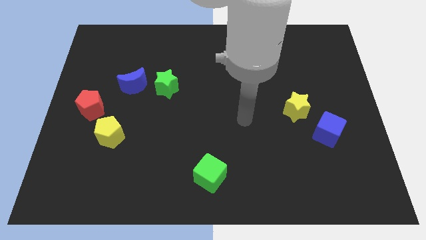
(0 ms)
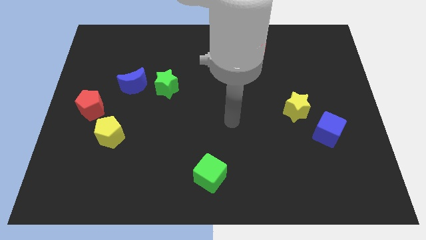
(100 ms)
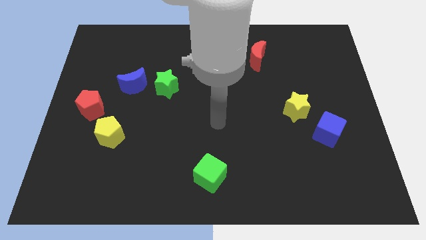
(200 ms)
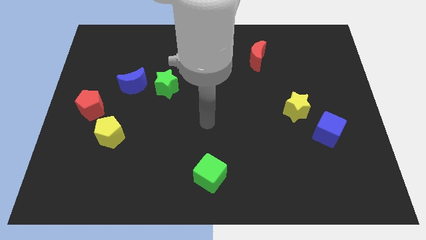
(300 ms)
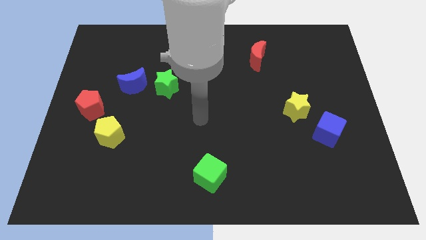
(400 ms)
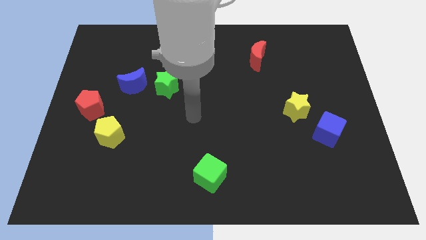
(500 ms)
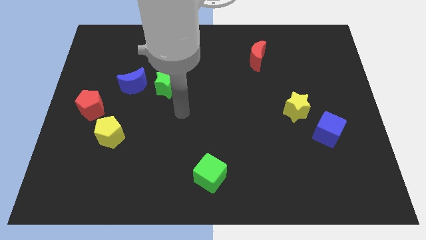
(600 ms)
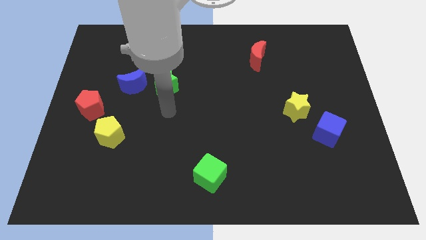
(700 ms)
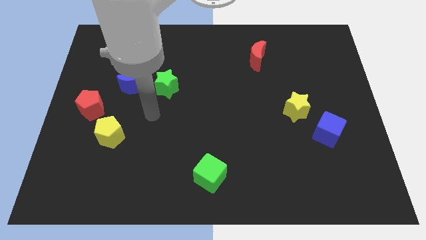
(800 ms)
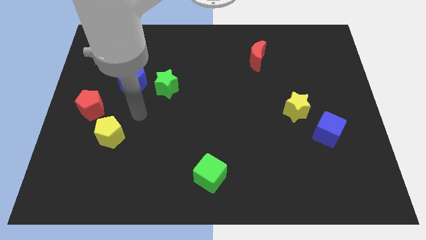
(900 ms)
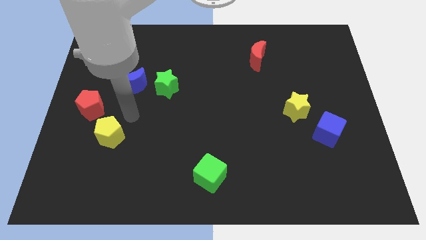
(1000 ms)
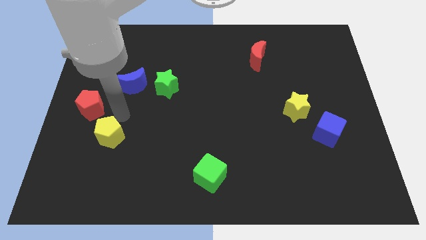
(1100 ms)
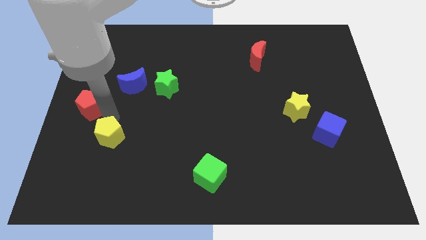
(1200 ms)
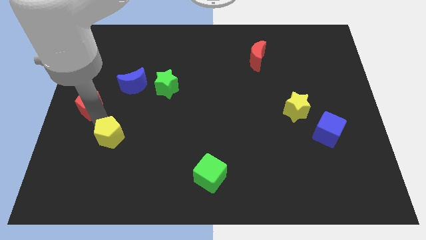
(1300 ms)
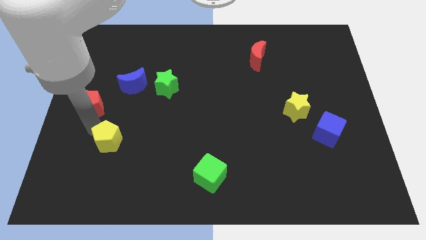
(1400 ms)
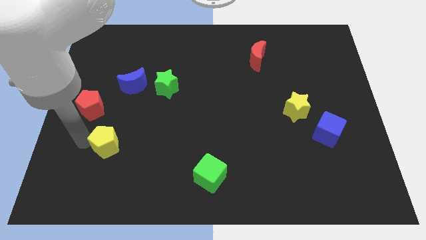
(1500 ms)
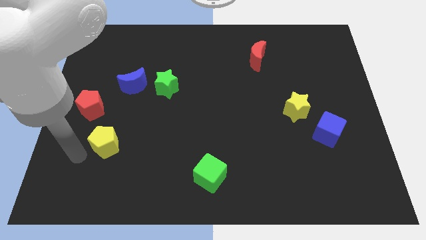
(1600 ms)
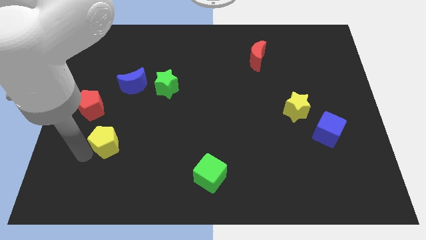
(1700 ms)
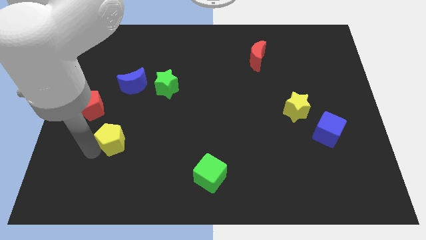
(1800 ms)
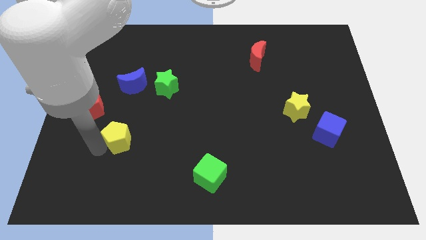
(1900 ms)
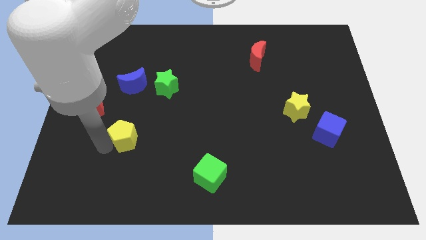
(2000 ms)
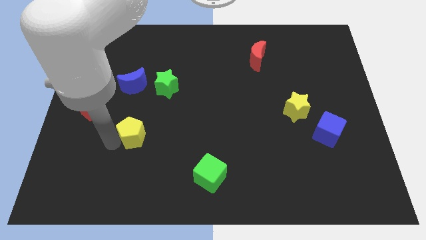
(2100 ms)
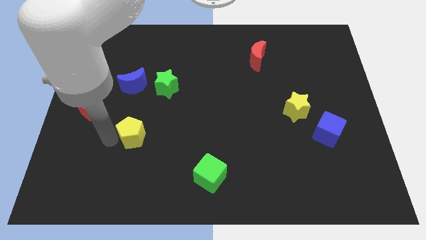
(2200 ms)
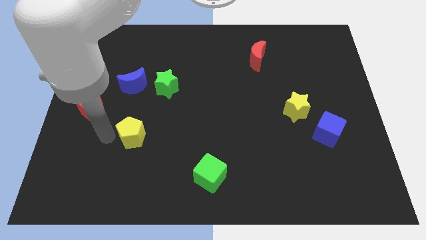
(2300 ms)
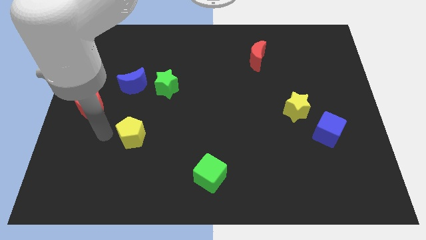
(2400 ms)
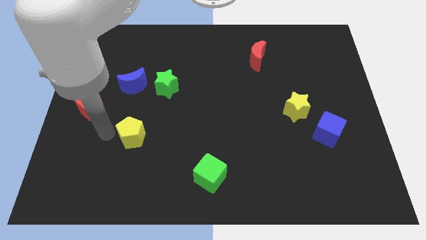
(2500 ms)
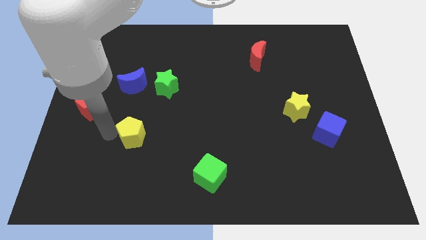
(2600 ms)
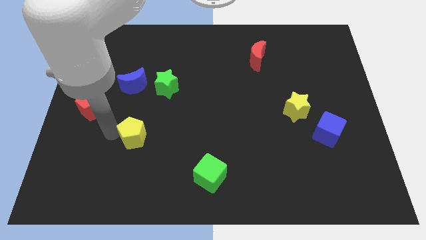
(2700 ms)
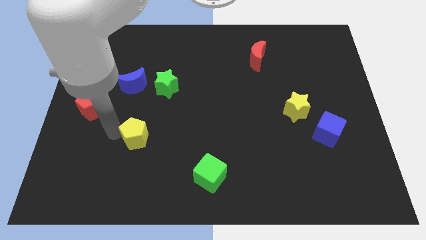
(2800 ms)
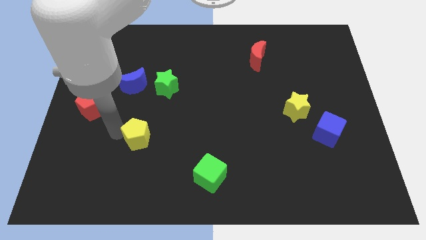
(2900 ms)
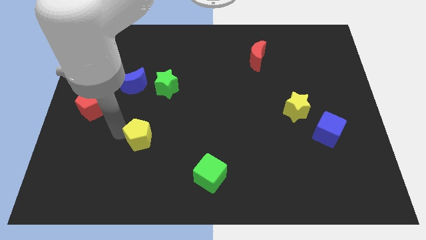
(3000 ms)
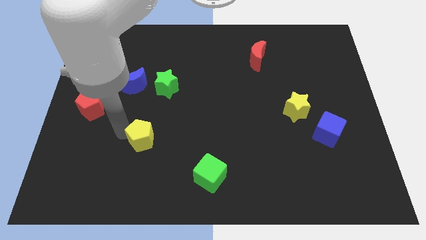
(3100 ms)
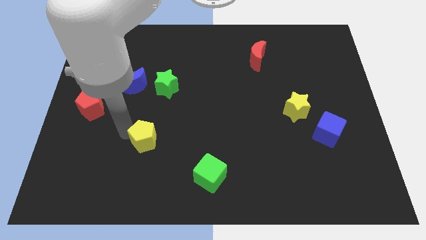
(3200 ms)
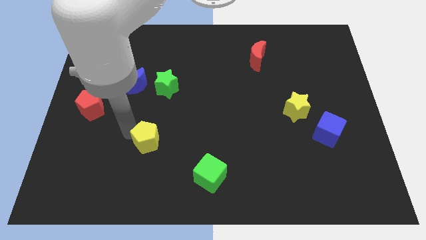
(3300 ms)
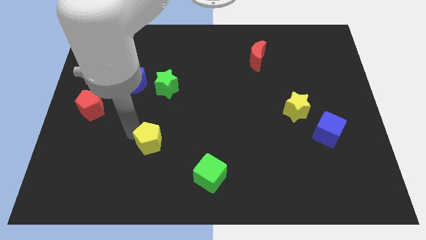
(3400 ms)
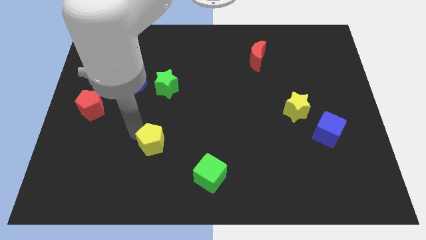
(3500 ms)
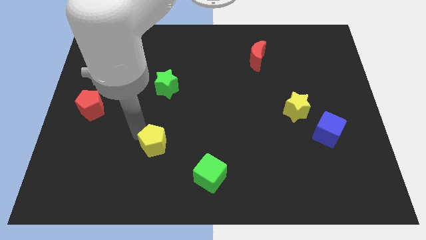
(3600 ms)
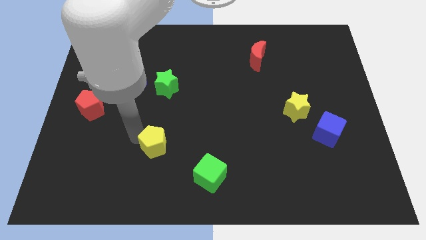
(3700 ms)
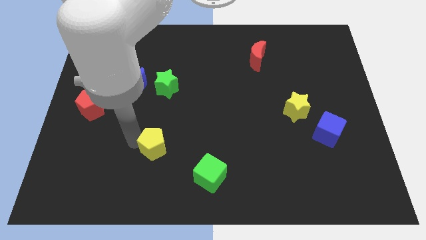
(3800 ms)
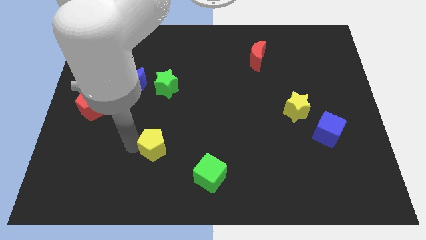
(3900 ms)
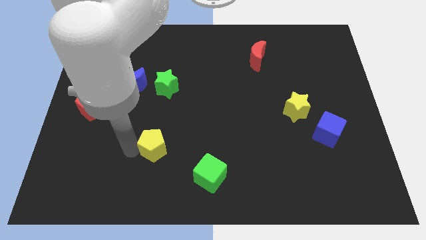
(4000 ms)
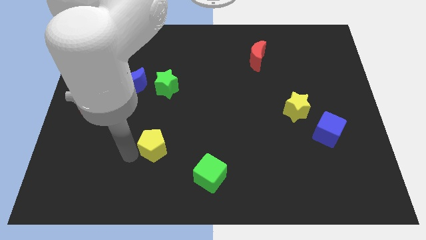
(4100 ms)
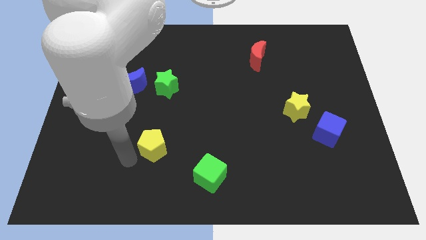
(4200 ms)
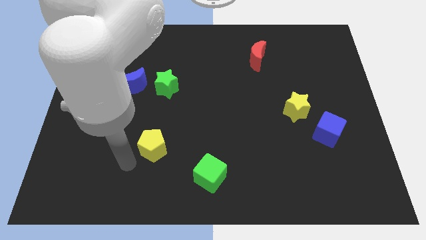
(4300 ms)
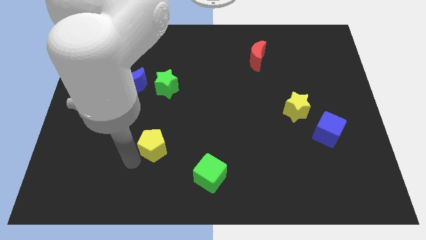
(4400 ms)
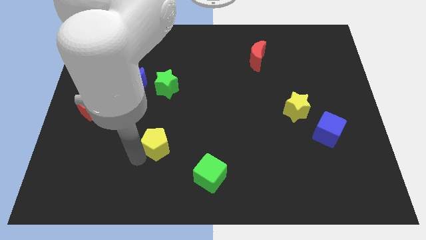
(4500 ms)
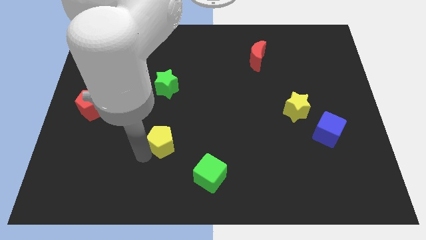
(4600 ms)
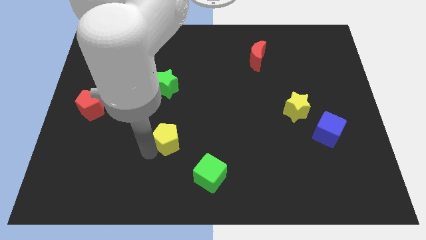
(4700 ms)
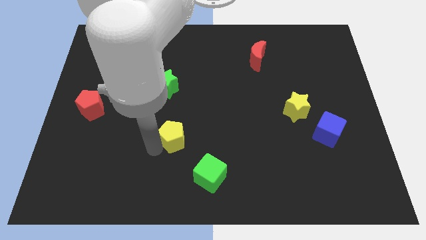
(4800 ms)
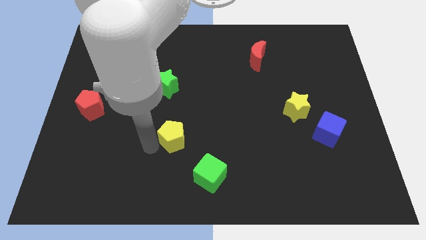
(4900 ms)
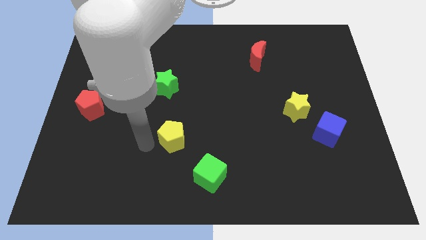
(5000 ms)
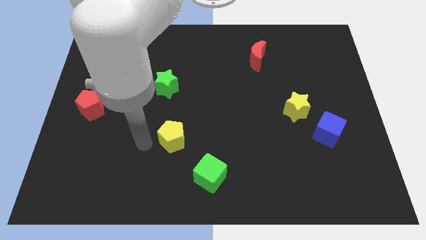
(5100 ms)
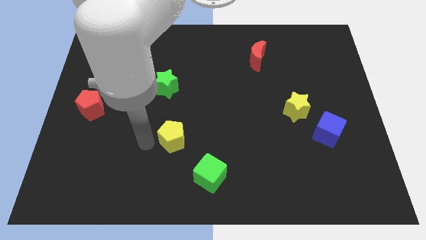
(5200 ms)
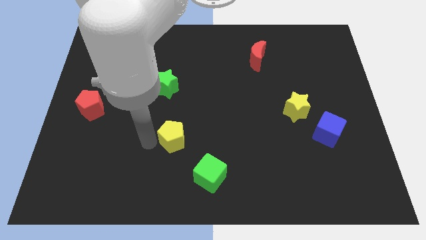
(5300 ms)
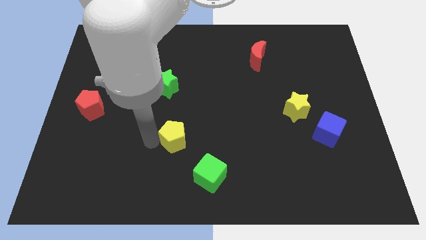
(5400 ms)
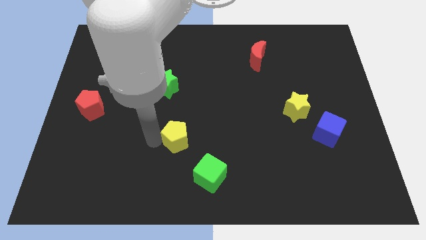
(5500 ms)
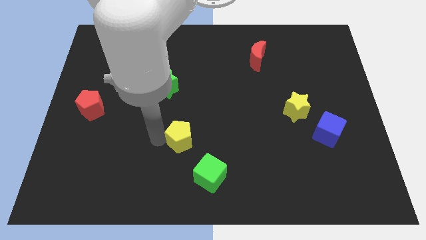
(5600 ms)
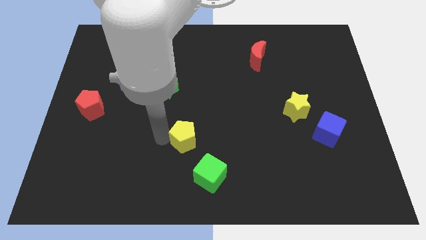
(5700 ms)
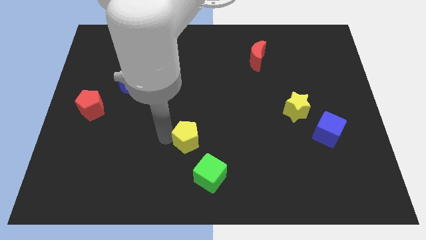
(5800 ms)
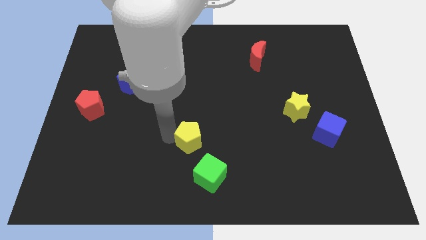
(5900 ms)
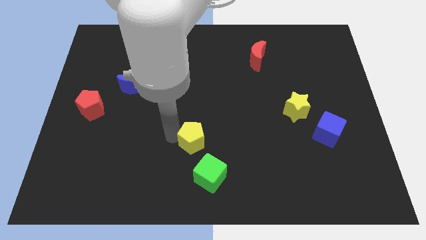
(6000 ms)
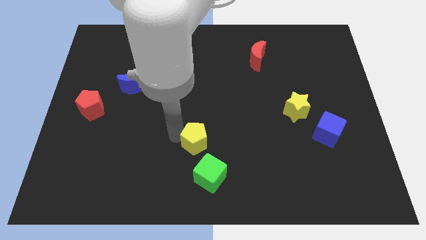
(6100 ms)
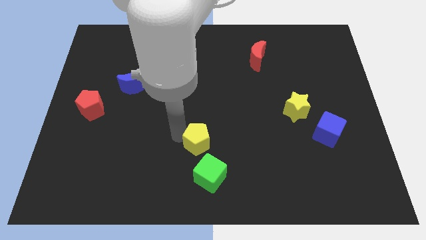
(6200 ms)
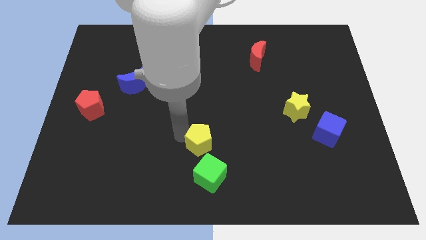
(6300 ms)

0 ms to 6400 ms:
move the yellow pentagon to the right

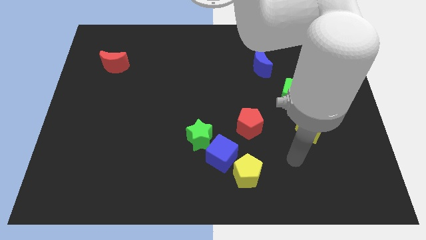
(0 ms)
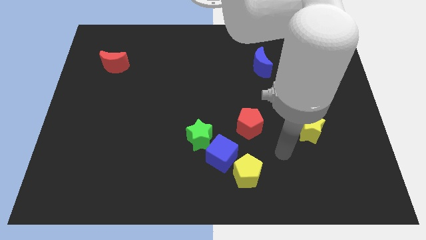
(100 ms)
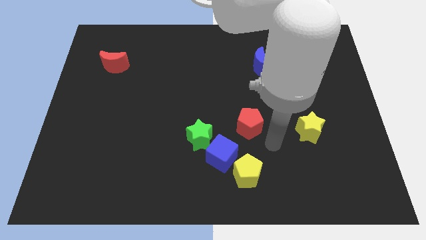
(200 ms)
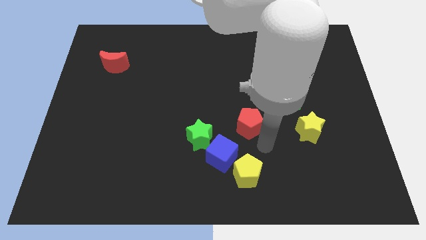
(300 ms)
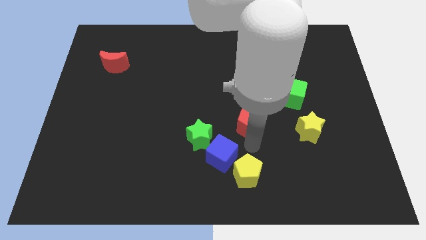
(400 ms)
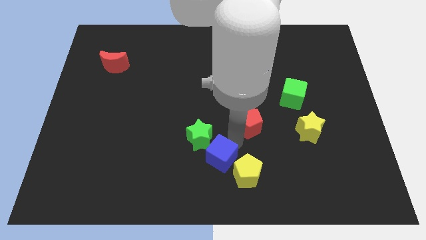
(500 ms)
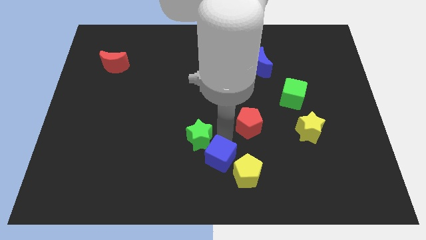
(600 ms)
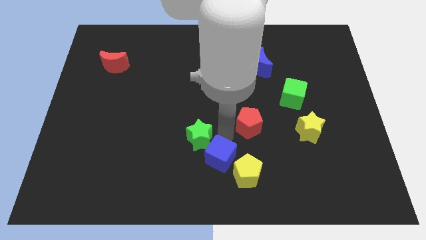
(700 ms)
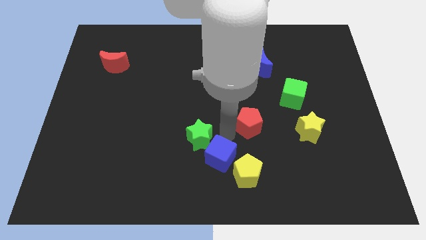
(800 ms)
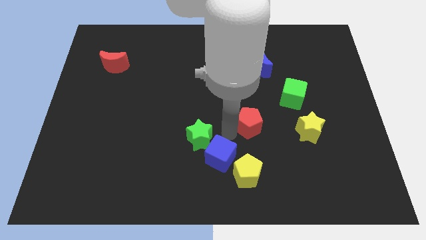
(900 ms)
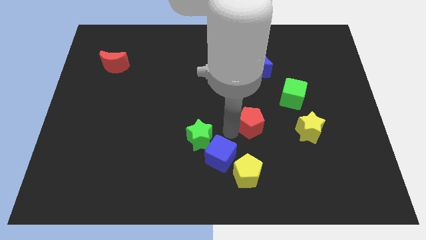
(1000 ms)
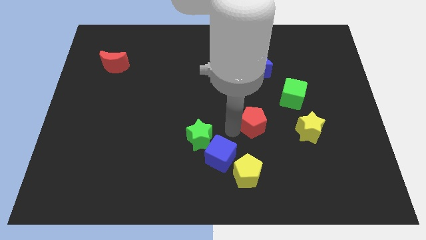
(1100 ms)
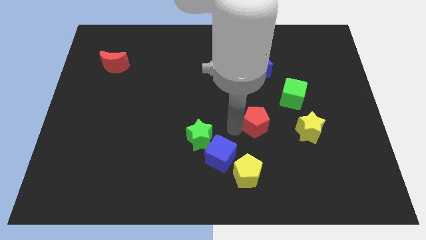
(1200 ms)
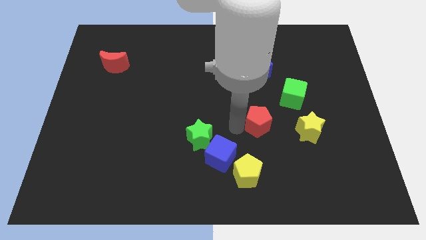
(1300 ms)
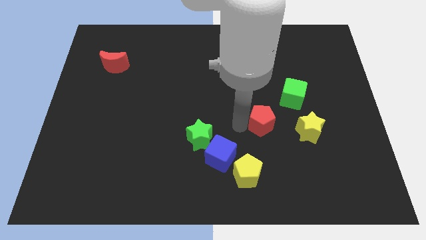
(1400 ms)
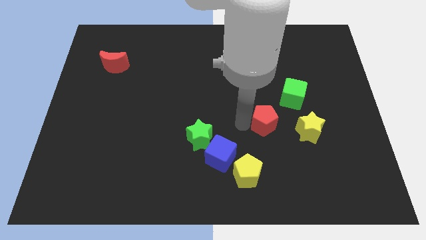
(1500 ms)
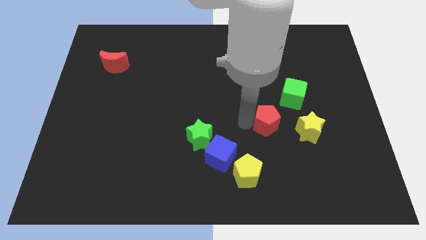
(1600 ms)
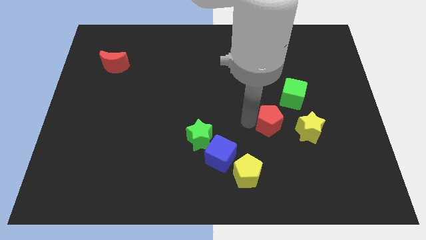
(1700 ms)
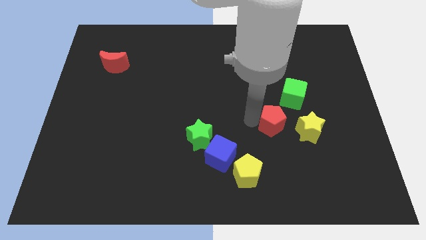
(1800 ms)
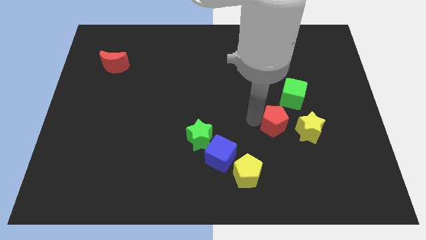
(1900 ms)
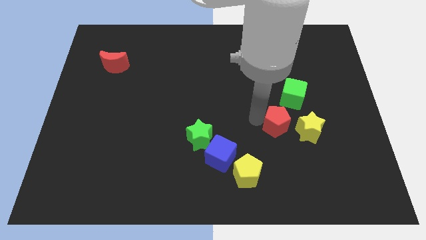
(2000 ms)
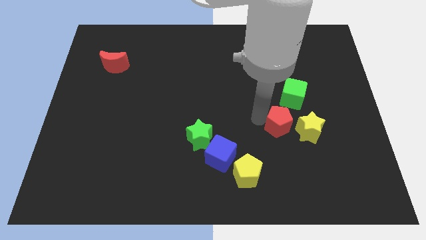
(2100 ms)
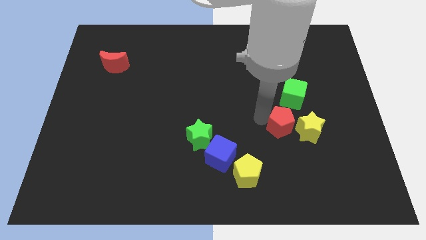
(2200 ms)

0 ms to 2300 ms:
slightly slide the red pentagon to the right
